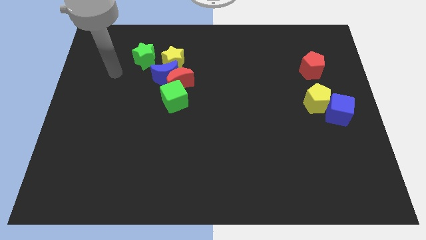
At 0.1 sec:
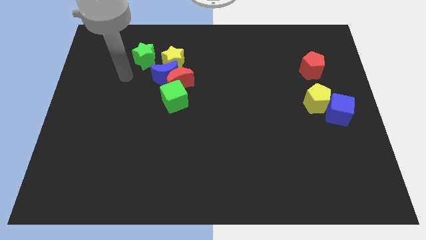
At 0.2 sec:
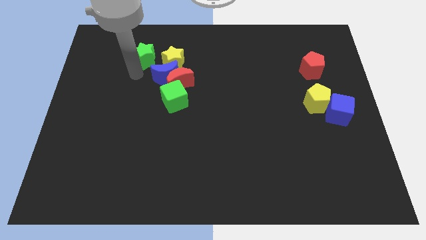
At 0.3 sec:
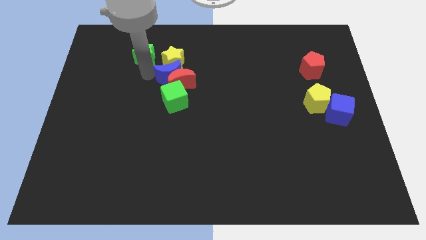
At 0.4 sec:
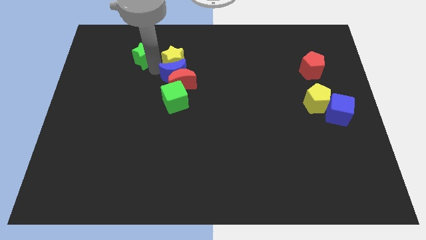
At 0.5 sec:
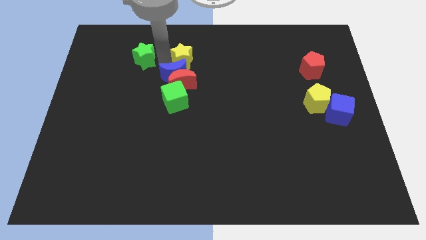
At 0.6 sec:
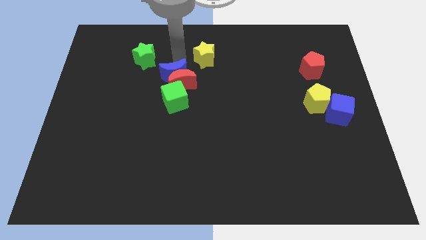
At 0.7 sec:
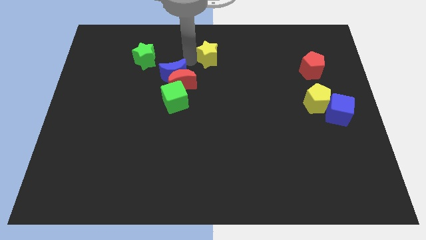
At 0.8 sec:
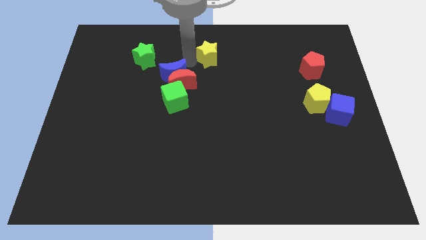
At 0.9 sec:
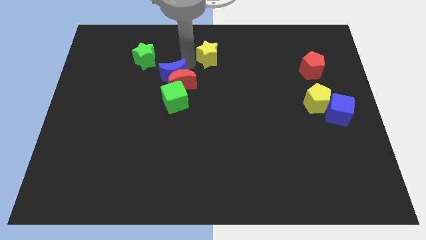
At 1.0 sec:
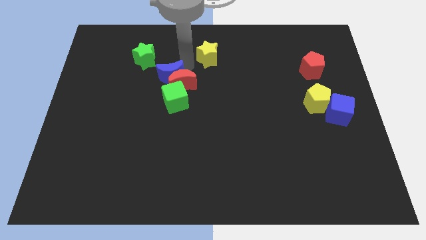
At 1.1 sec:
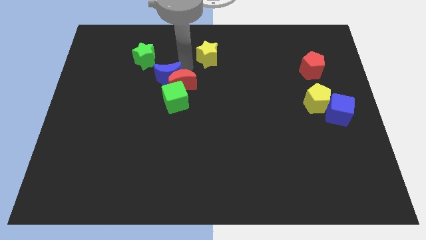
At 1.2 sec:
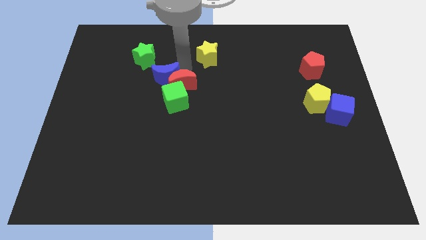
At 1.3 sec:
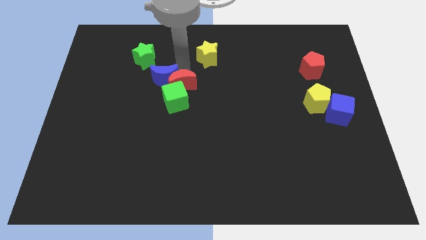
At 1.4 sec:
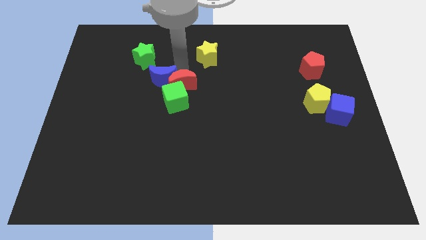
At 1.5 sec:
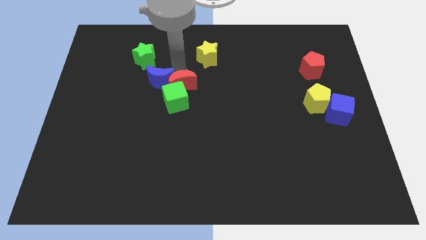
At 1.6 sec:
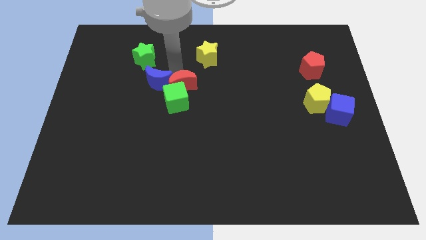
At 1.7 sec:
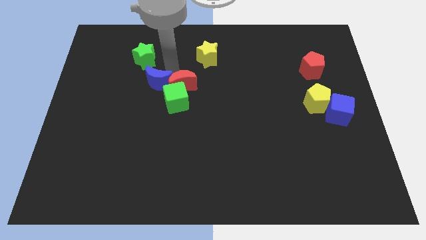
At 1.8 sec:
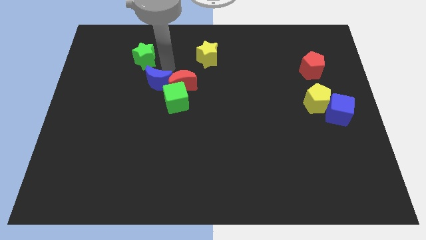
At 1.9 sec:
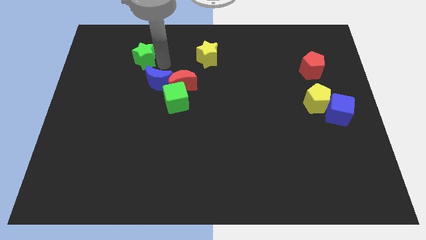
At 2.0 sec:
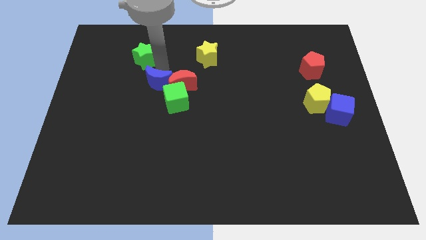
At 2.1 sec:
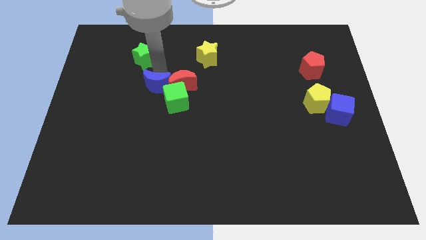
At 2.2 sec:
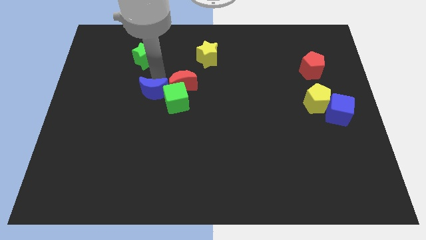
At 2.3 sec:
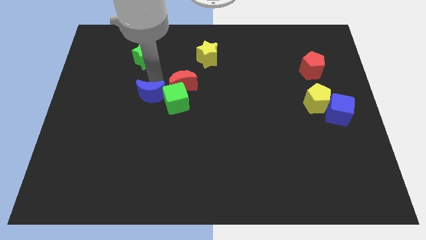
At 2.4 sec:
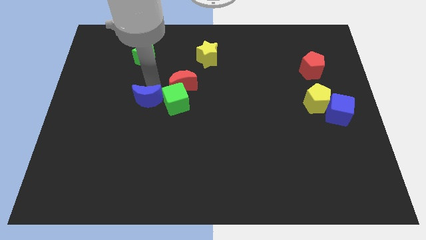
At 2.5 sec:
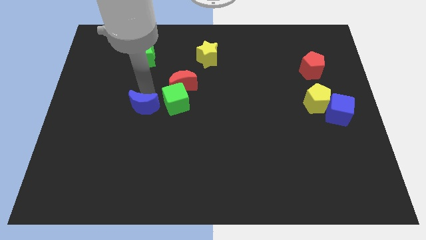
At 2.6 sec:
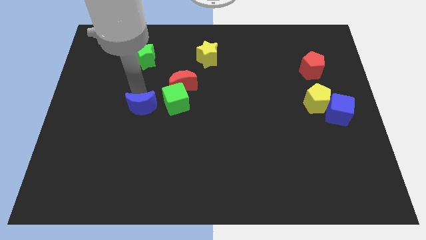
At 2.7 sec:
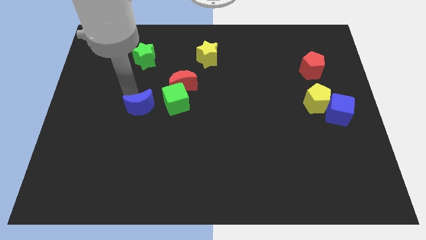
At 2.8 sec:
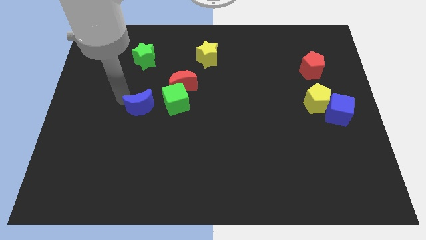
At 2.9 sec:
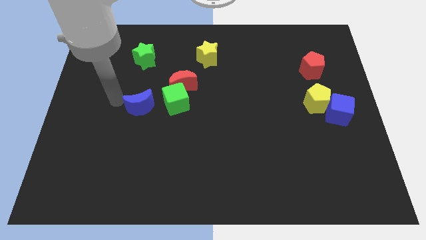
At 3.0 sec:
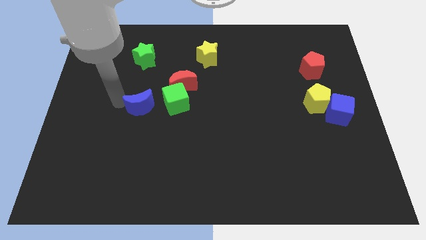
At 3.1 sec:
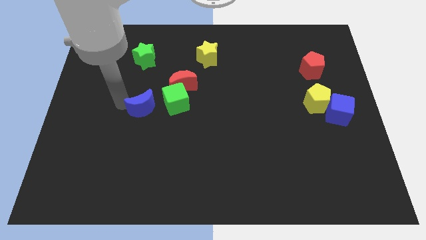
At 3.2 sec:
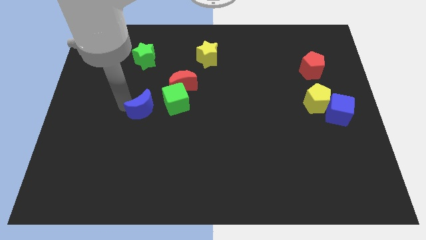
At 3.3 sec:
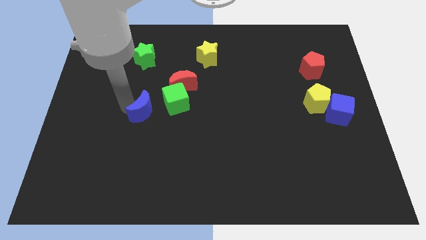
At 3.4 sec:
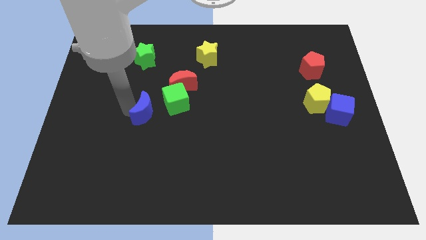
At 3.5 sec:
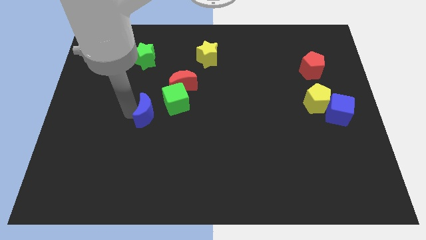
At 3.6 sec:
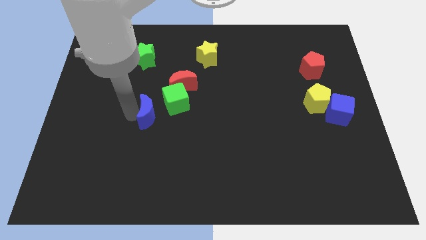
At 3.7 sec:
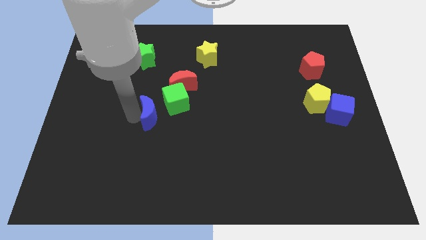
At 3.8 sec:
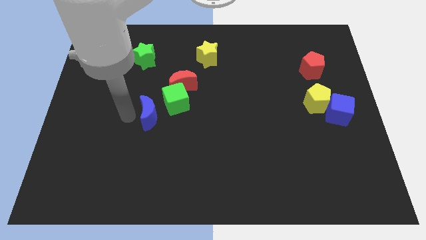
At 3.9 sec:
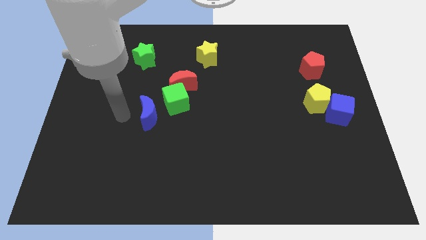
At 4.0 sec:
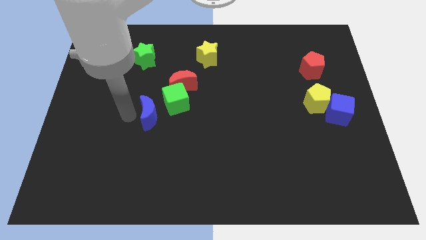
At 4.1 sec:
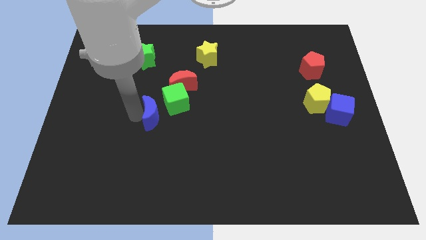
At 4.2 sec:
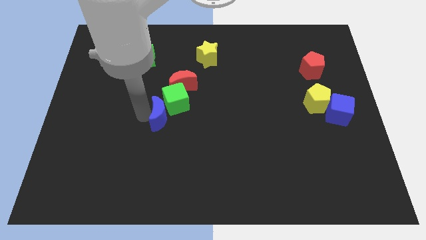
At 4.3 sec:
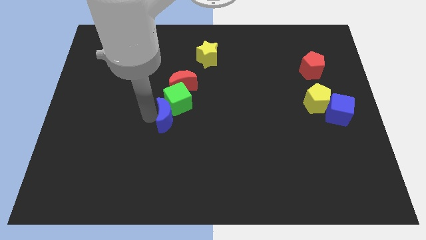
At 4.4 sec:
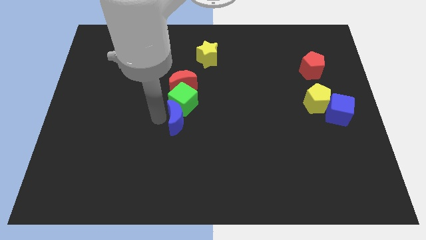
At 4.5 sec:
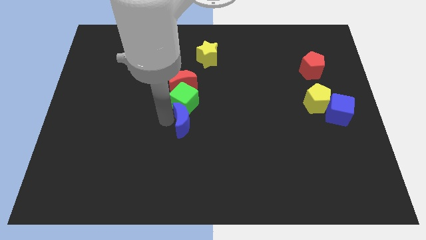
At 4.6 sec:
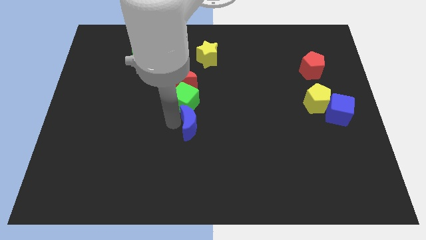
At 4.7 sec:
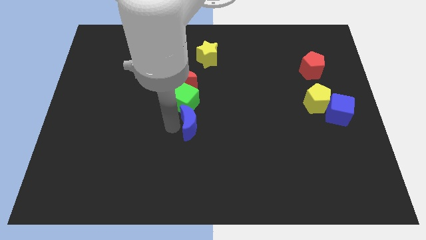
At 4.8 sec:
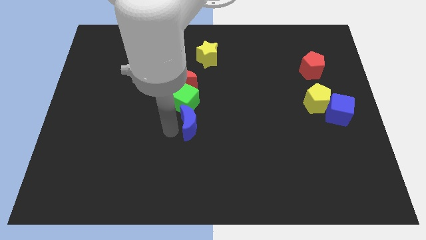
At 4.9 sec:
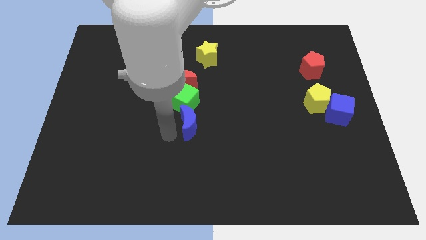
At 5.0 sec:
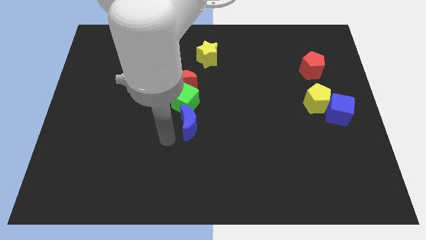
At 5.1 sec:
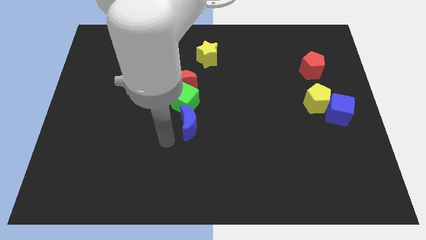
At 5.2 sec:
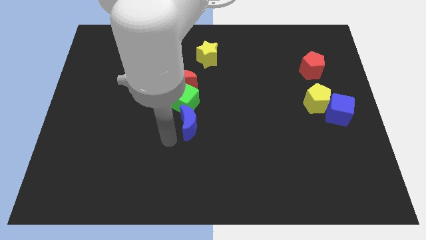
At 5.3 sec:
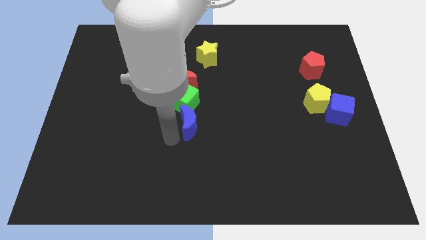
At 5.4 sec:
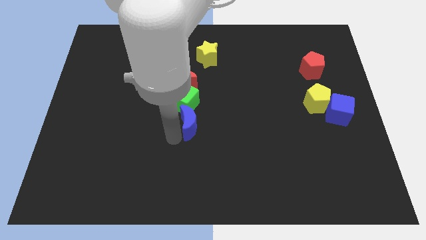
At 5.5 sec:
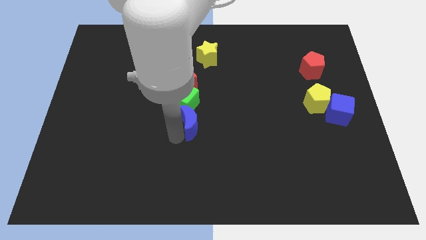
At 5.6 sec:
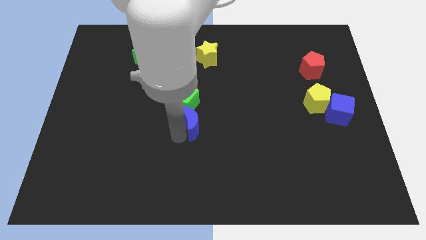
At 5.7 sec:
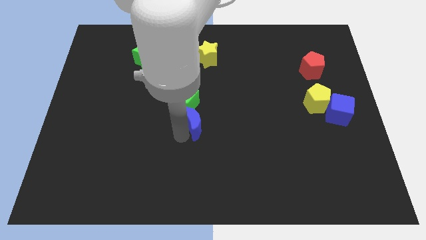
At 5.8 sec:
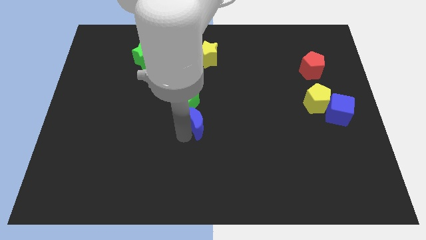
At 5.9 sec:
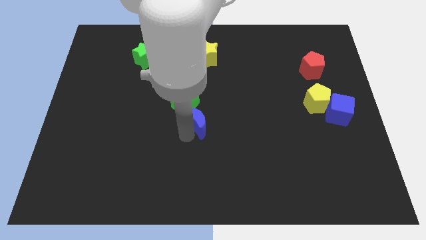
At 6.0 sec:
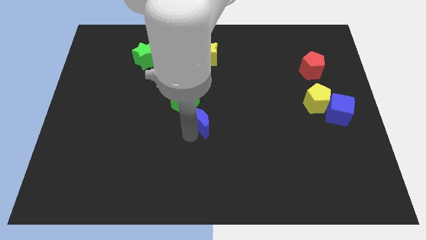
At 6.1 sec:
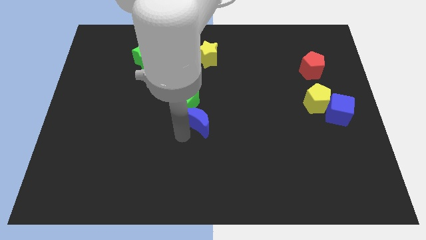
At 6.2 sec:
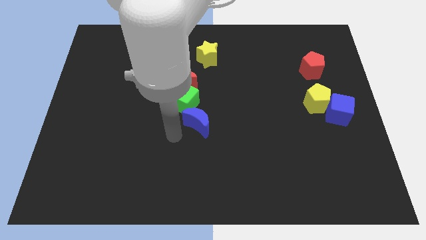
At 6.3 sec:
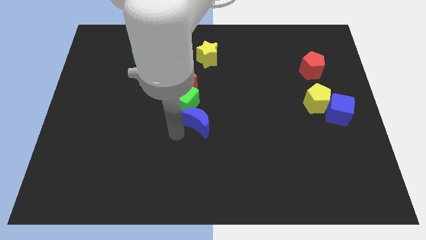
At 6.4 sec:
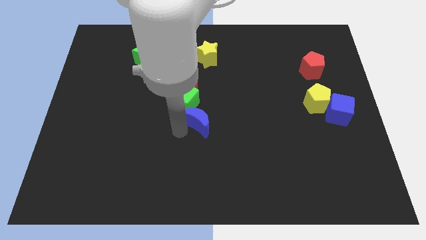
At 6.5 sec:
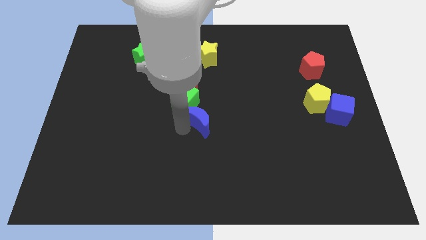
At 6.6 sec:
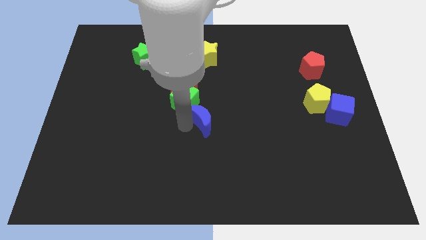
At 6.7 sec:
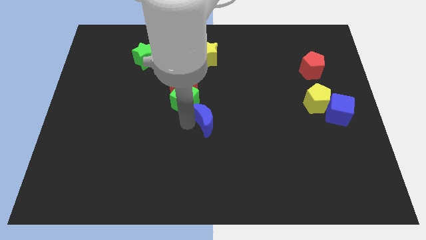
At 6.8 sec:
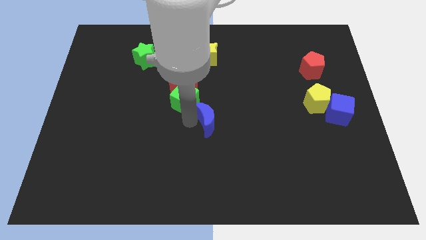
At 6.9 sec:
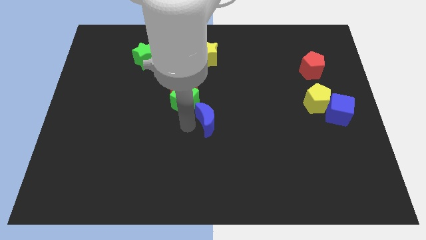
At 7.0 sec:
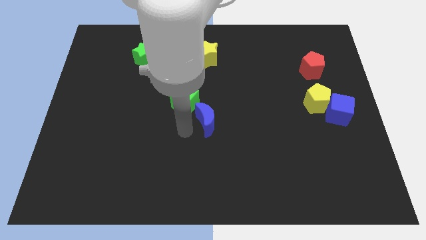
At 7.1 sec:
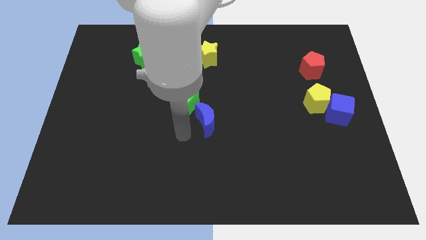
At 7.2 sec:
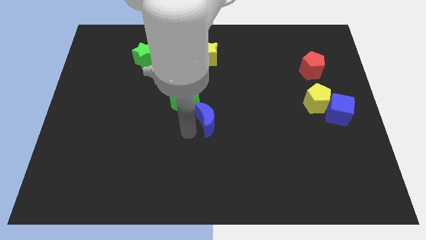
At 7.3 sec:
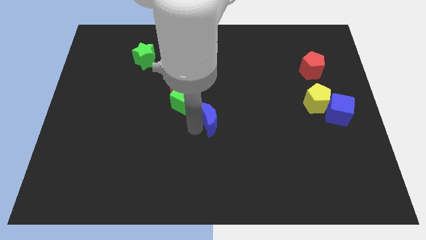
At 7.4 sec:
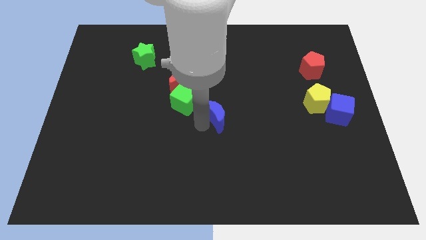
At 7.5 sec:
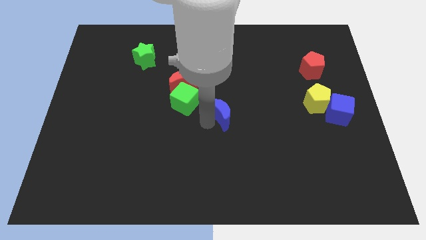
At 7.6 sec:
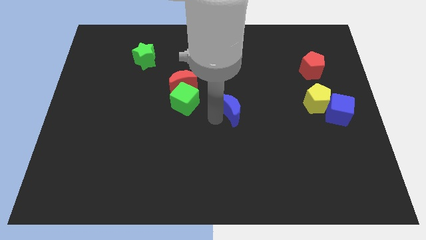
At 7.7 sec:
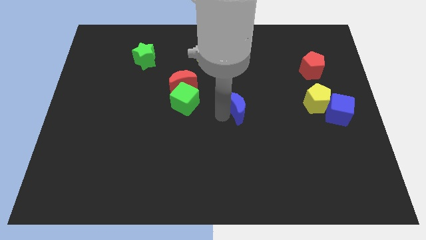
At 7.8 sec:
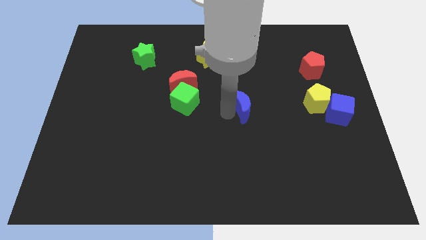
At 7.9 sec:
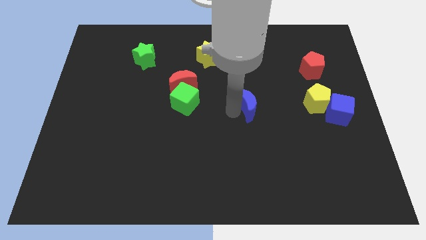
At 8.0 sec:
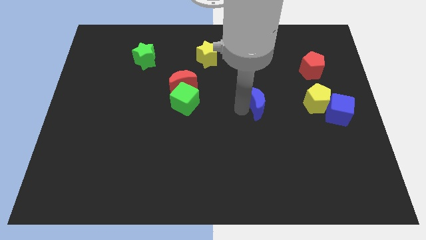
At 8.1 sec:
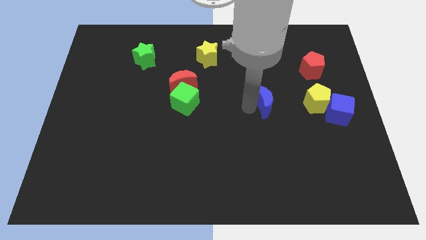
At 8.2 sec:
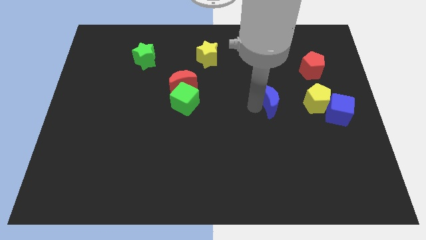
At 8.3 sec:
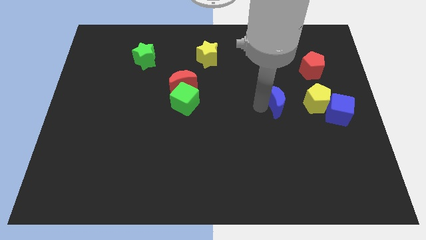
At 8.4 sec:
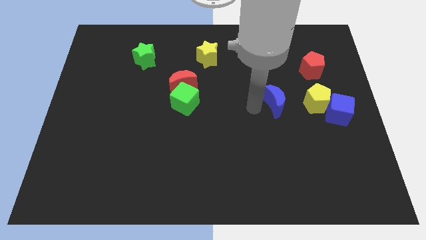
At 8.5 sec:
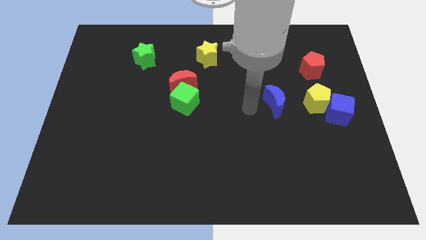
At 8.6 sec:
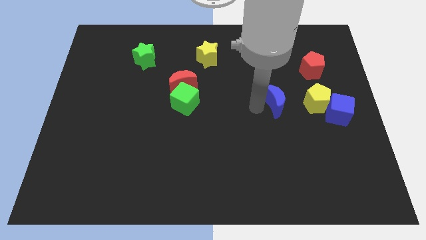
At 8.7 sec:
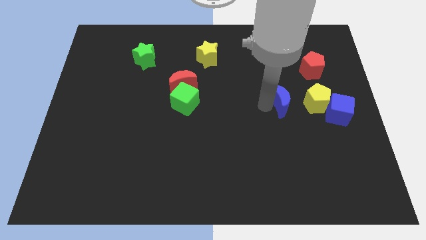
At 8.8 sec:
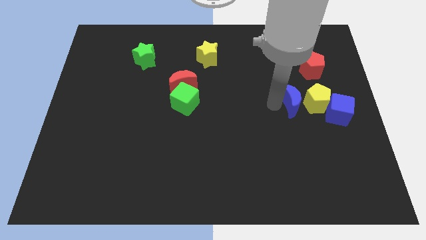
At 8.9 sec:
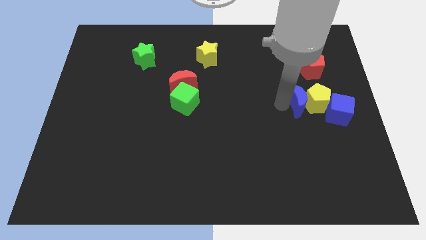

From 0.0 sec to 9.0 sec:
move the blue moon to the top left of the blue cube
